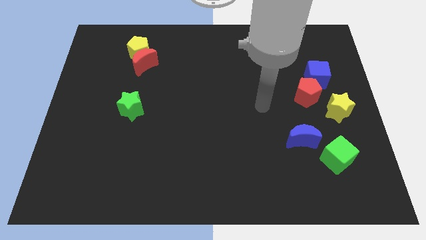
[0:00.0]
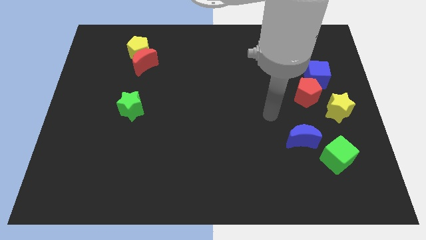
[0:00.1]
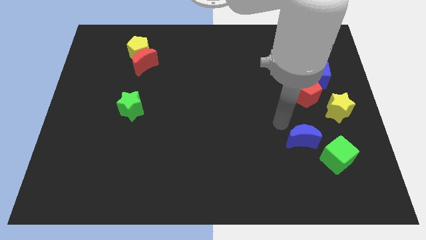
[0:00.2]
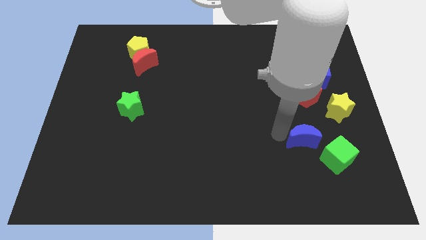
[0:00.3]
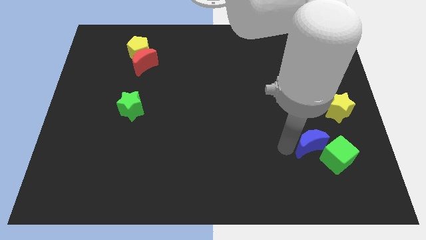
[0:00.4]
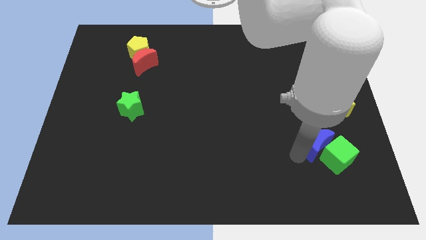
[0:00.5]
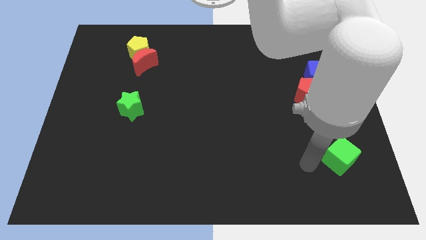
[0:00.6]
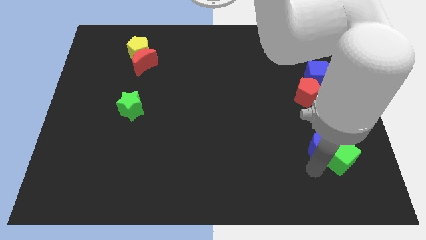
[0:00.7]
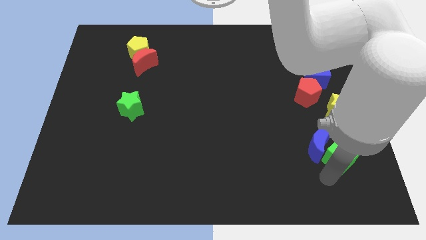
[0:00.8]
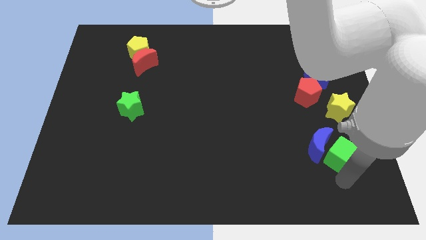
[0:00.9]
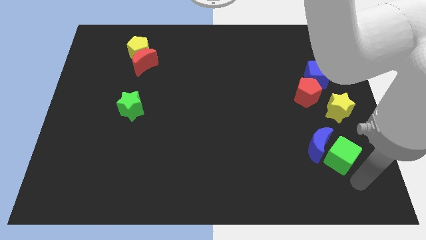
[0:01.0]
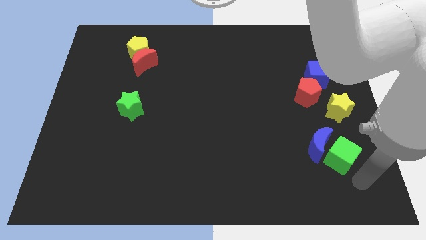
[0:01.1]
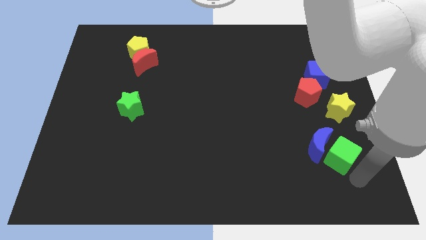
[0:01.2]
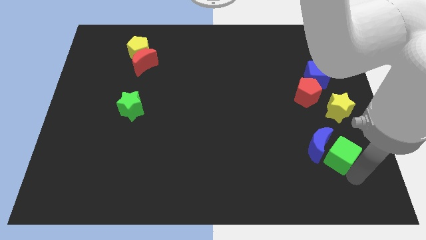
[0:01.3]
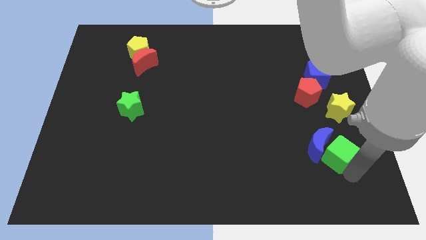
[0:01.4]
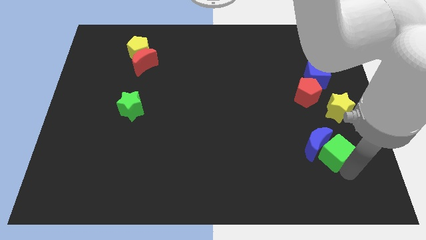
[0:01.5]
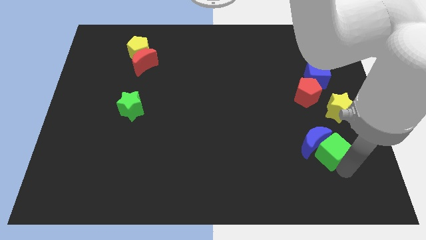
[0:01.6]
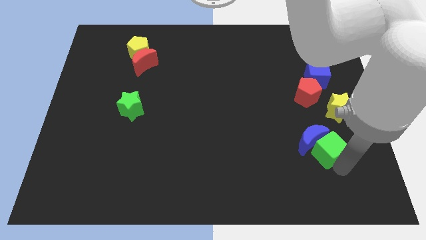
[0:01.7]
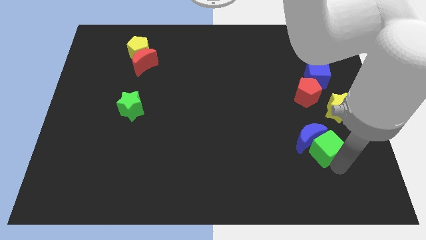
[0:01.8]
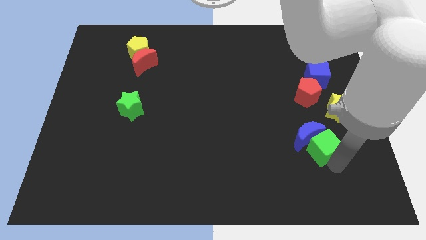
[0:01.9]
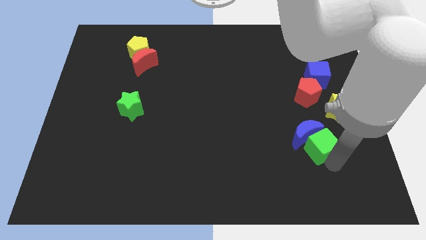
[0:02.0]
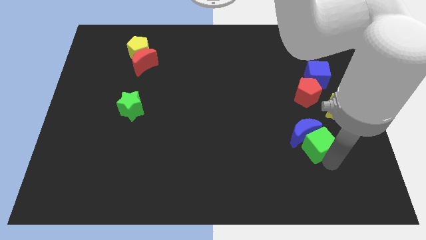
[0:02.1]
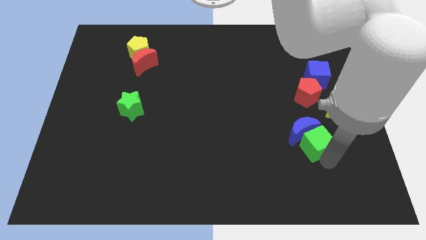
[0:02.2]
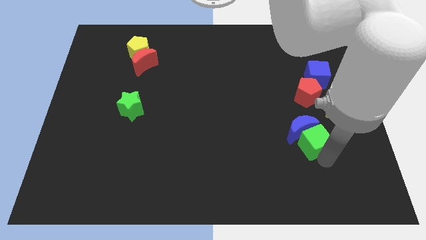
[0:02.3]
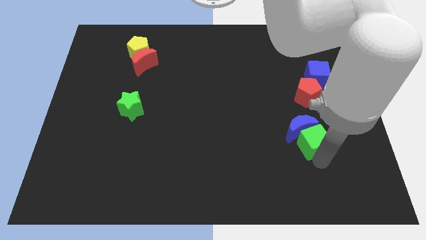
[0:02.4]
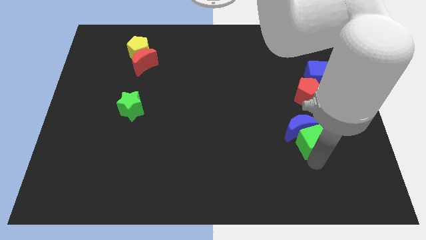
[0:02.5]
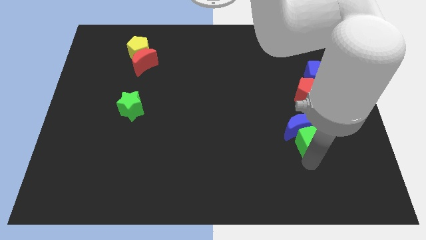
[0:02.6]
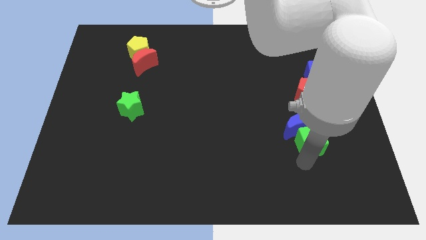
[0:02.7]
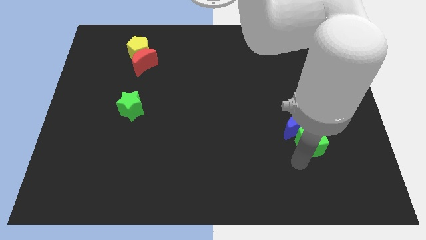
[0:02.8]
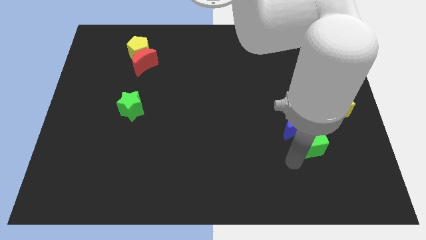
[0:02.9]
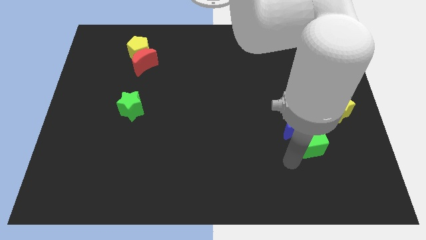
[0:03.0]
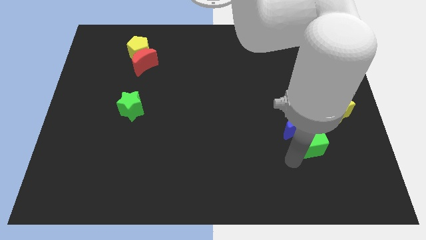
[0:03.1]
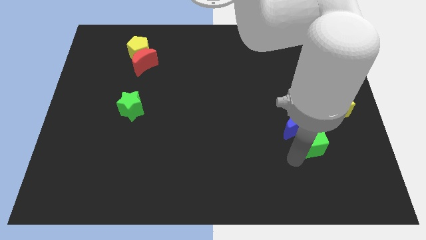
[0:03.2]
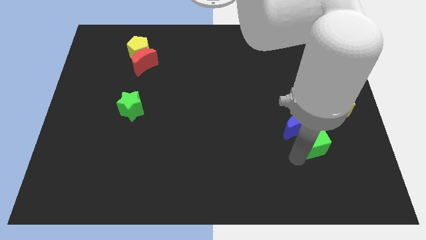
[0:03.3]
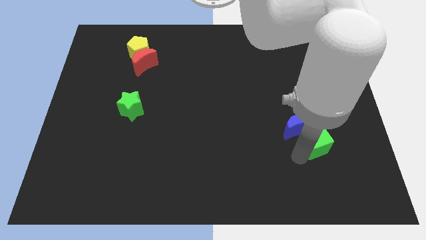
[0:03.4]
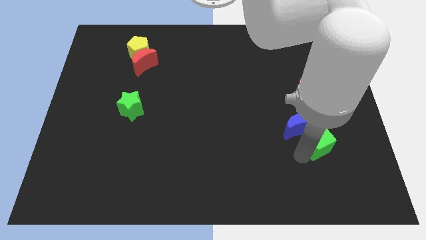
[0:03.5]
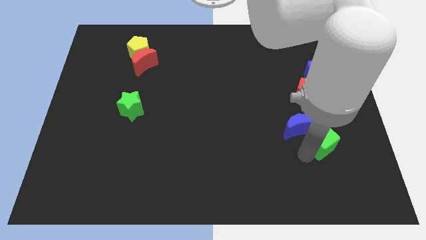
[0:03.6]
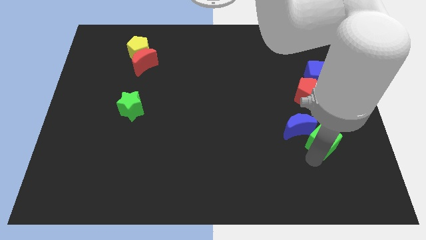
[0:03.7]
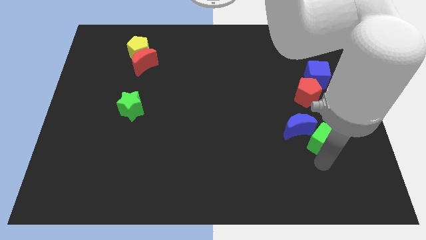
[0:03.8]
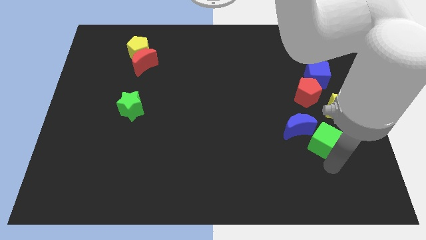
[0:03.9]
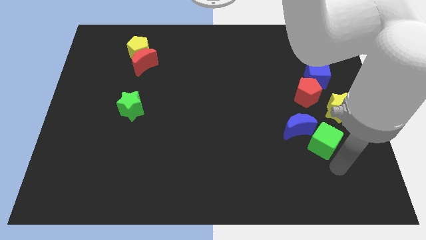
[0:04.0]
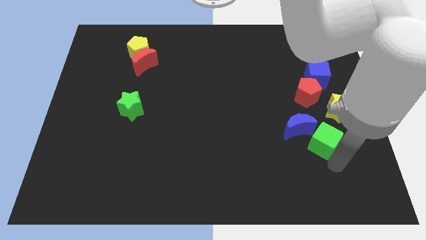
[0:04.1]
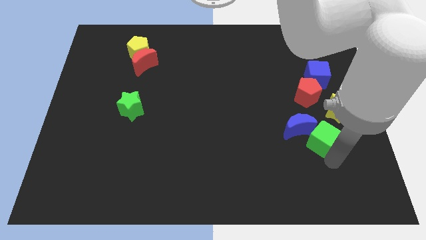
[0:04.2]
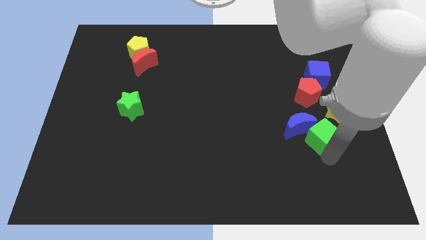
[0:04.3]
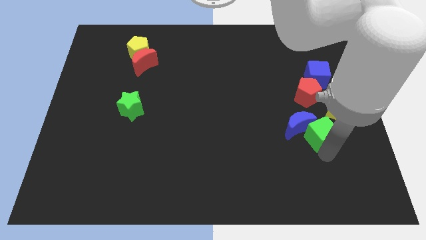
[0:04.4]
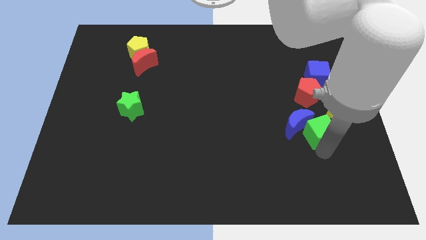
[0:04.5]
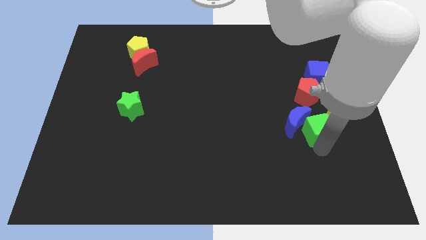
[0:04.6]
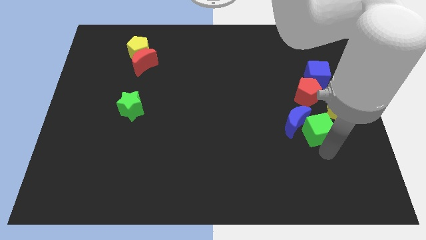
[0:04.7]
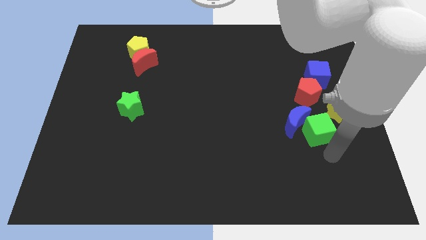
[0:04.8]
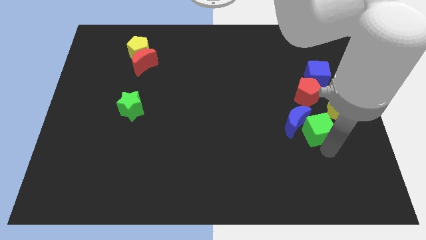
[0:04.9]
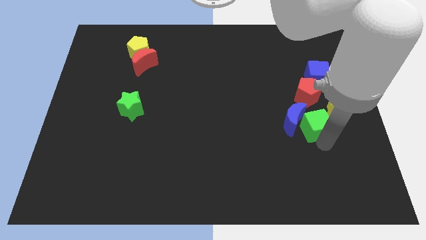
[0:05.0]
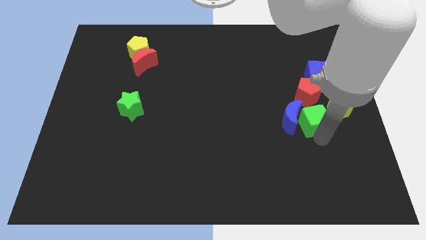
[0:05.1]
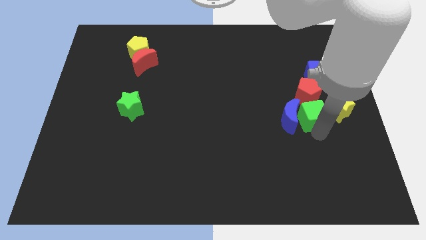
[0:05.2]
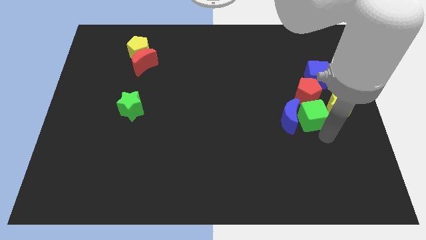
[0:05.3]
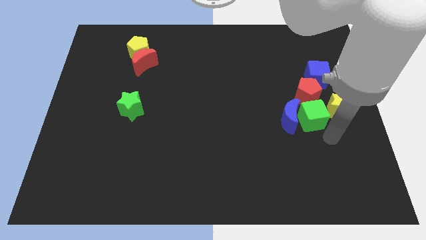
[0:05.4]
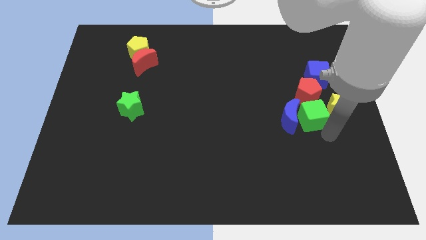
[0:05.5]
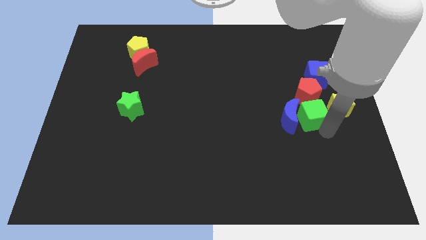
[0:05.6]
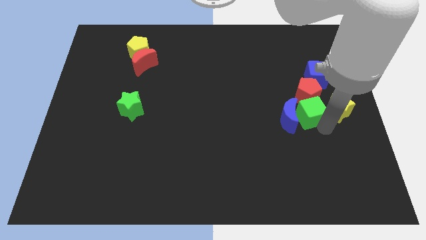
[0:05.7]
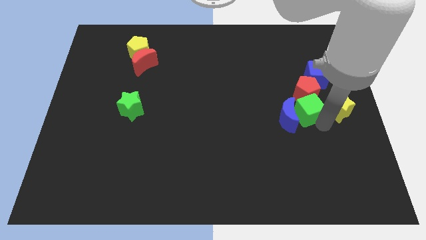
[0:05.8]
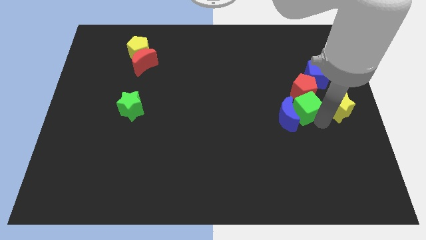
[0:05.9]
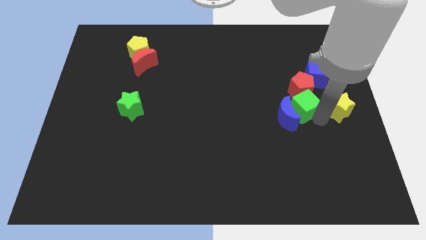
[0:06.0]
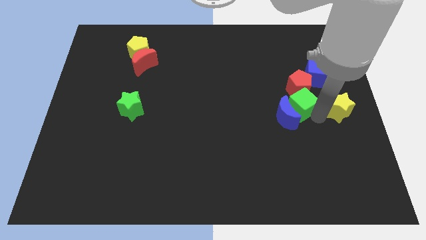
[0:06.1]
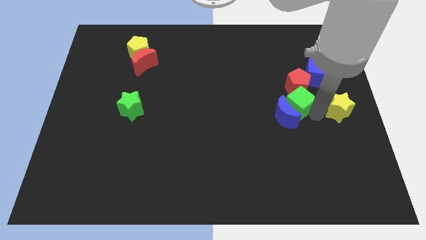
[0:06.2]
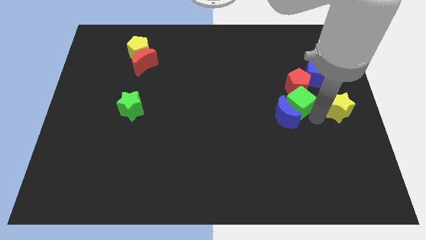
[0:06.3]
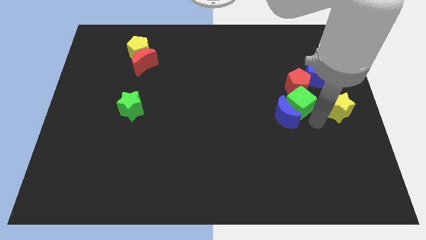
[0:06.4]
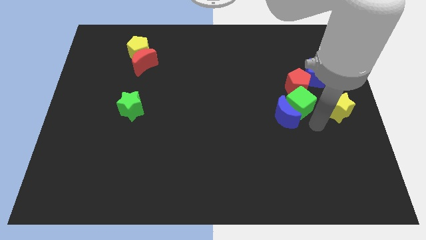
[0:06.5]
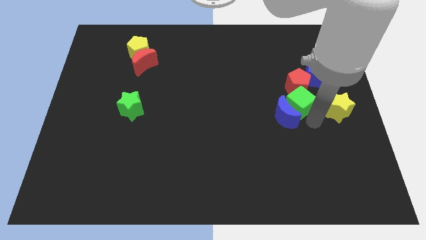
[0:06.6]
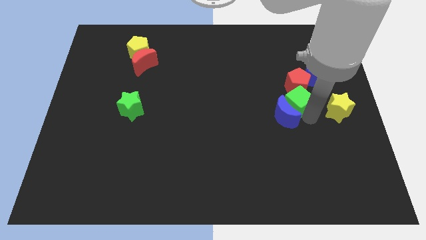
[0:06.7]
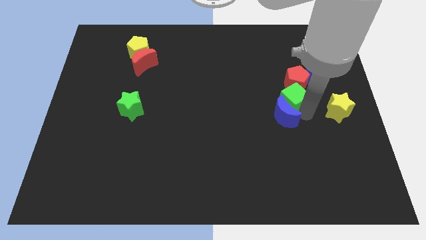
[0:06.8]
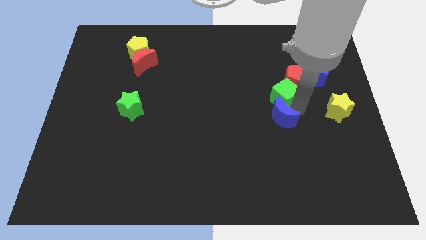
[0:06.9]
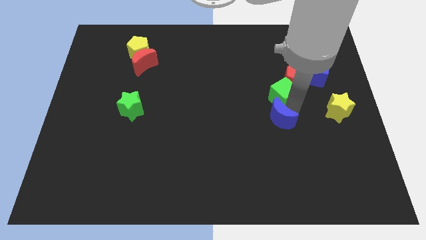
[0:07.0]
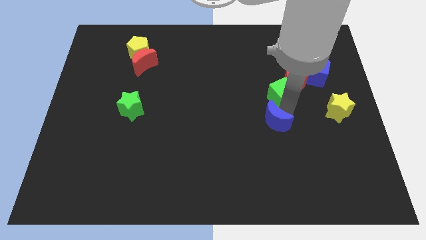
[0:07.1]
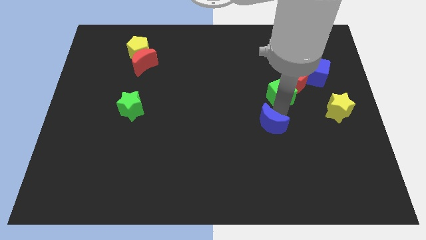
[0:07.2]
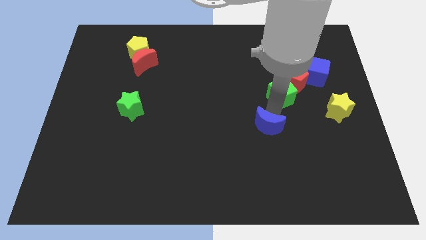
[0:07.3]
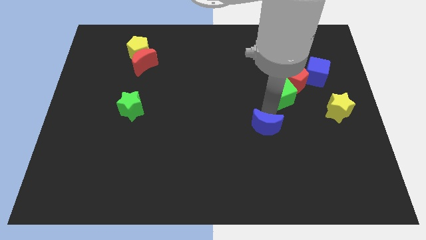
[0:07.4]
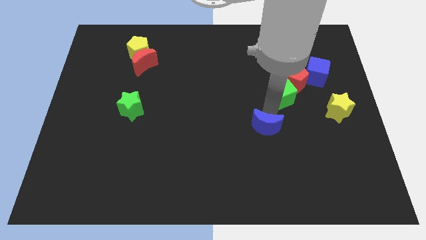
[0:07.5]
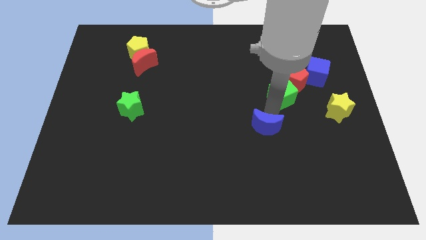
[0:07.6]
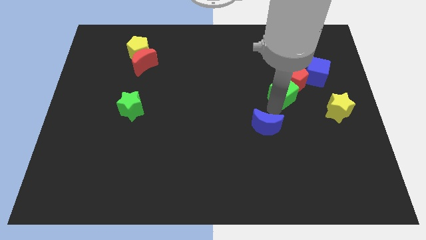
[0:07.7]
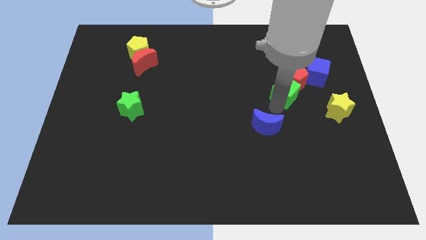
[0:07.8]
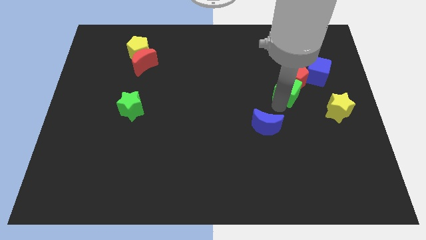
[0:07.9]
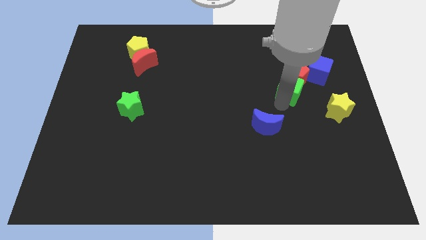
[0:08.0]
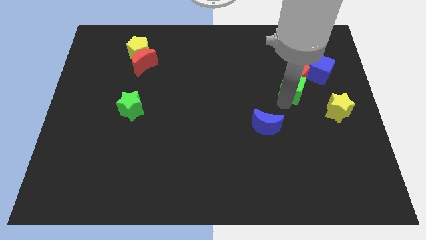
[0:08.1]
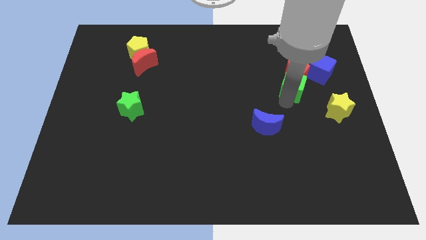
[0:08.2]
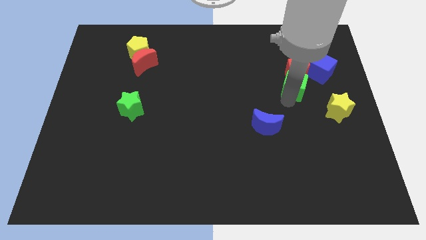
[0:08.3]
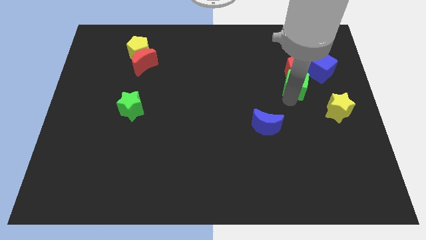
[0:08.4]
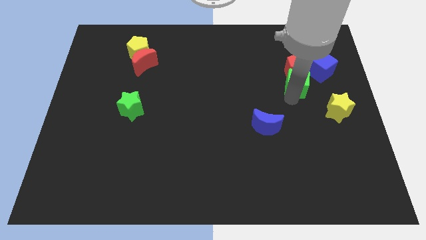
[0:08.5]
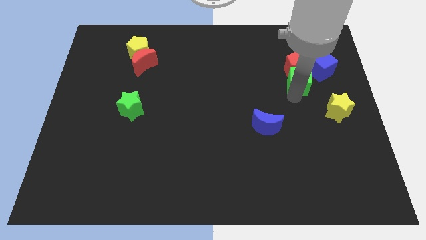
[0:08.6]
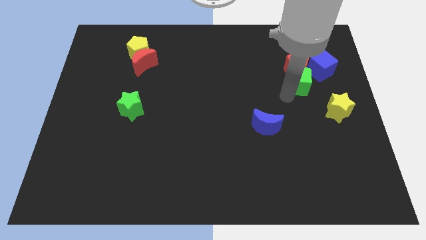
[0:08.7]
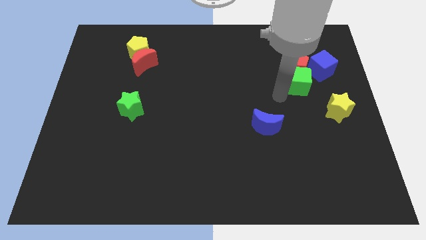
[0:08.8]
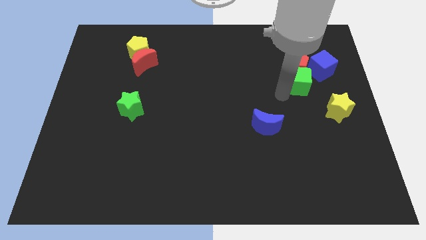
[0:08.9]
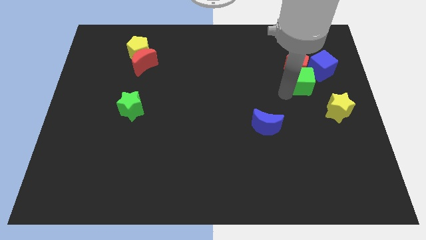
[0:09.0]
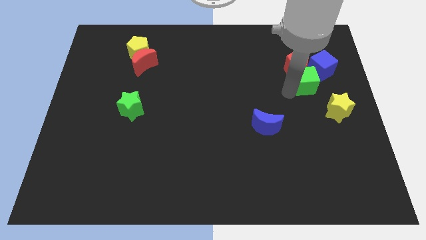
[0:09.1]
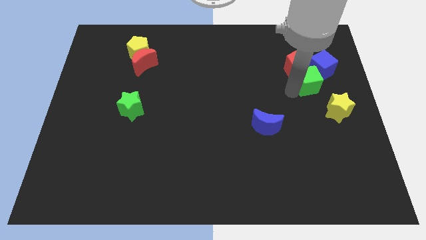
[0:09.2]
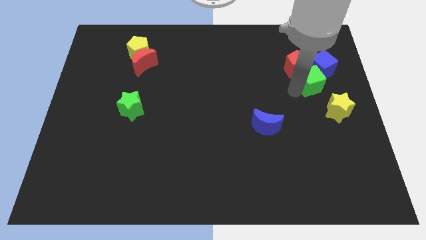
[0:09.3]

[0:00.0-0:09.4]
move the green cube towards the blue cube
